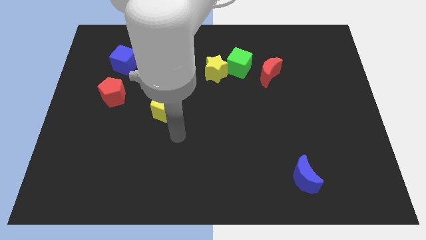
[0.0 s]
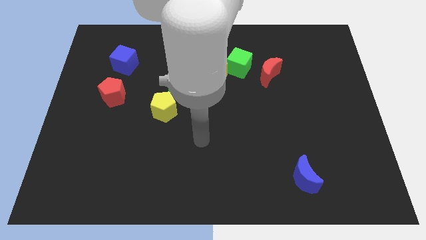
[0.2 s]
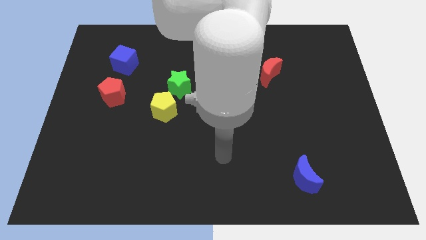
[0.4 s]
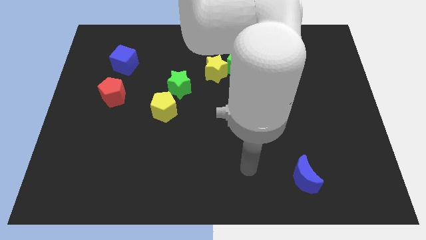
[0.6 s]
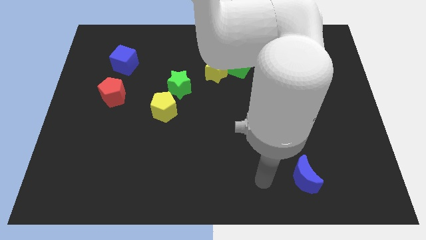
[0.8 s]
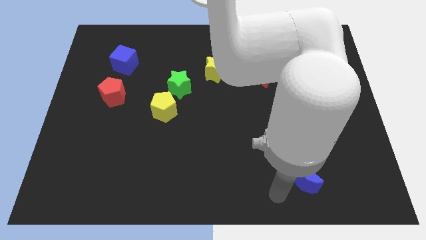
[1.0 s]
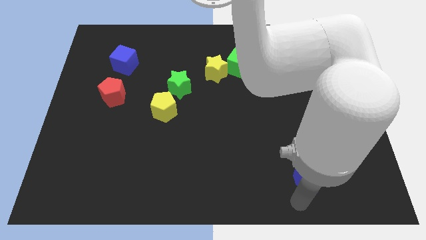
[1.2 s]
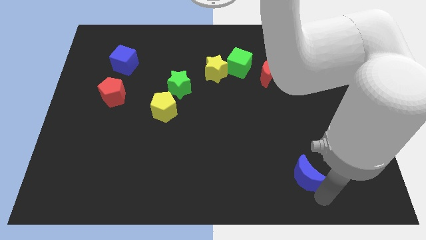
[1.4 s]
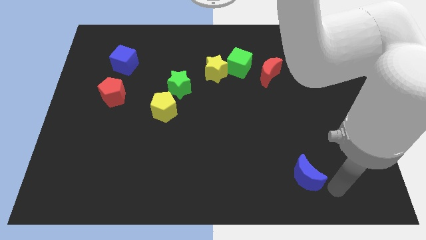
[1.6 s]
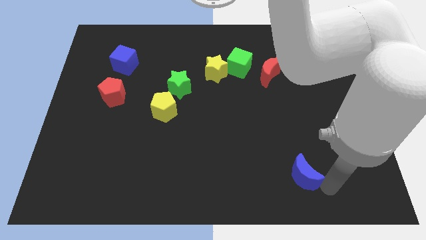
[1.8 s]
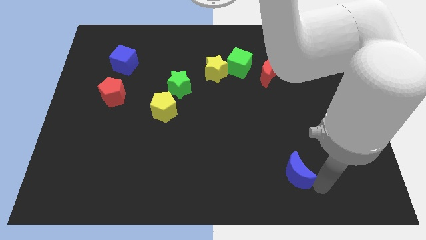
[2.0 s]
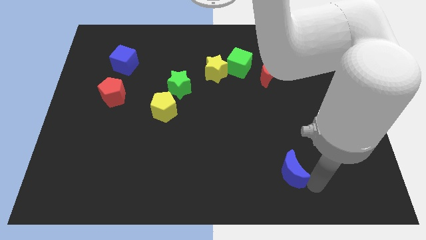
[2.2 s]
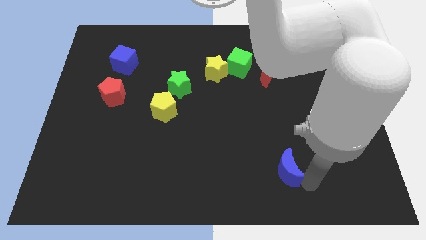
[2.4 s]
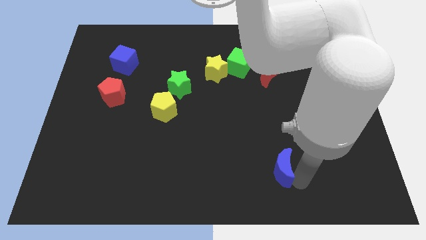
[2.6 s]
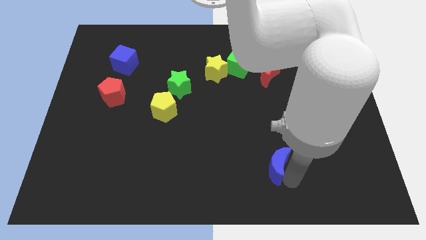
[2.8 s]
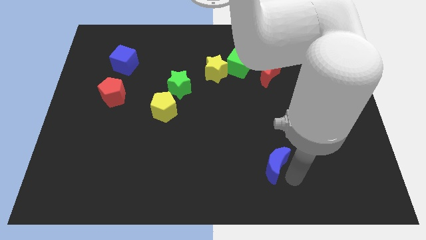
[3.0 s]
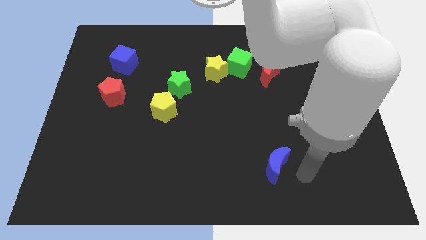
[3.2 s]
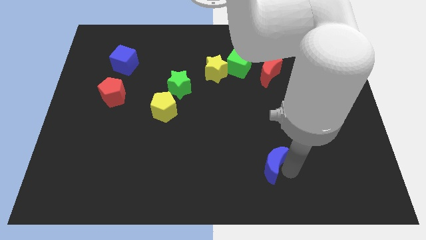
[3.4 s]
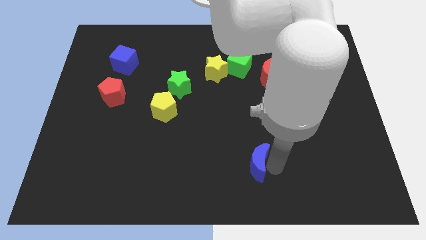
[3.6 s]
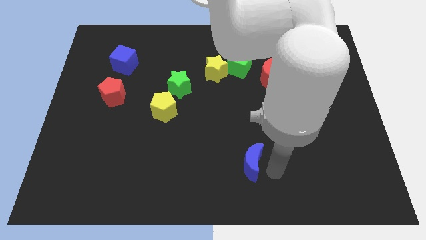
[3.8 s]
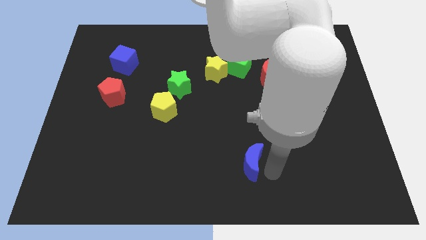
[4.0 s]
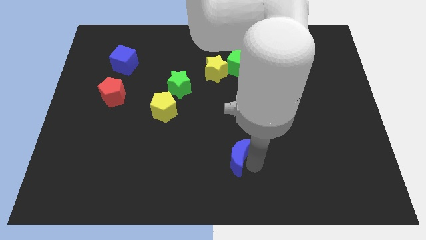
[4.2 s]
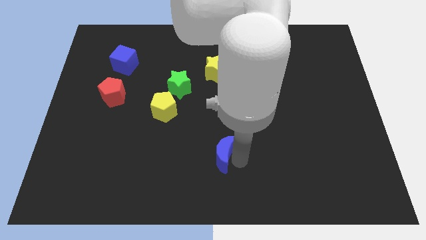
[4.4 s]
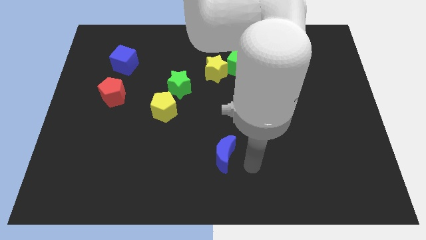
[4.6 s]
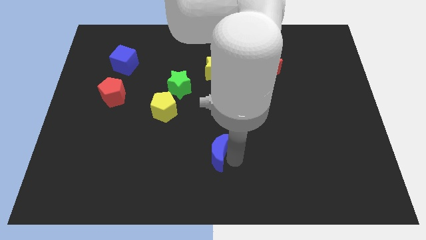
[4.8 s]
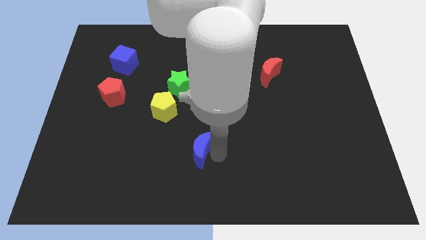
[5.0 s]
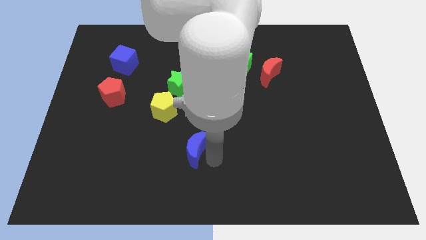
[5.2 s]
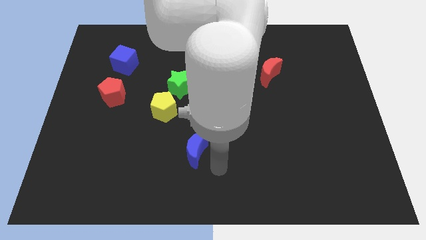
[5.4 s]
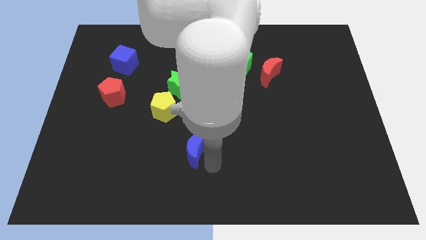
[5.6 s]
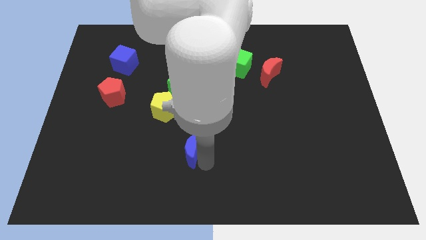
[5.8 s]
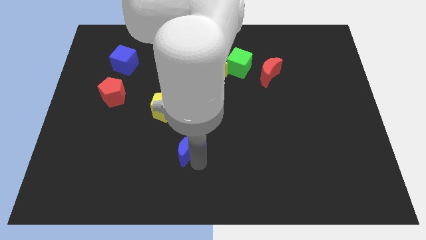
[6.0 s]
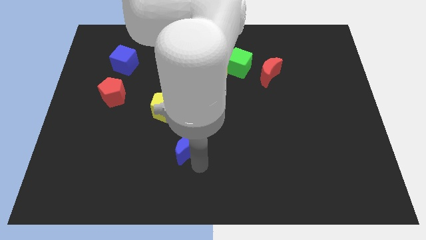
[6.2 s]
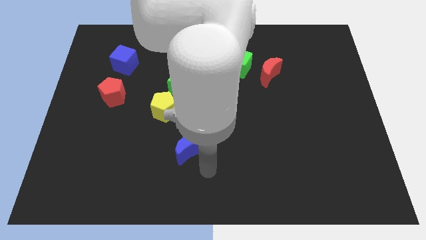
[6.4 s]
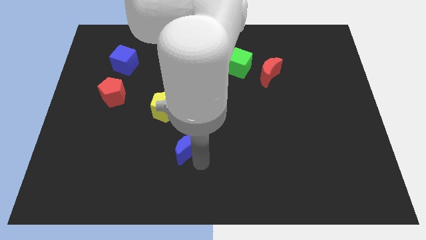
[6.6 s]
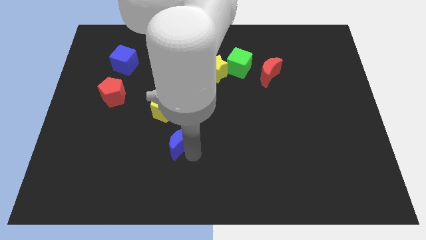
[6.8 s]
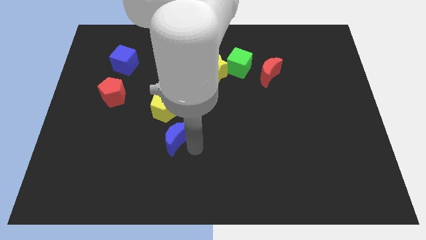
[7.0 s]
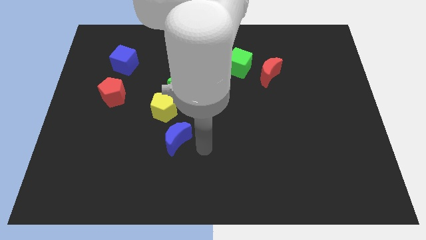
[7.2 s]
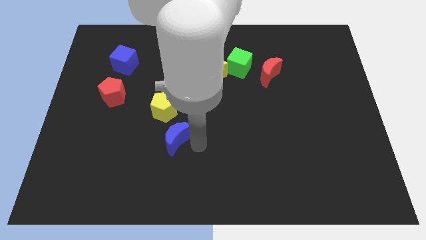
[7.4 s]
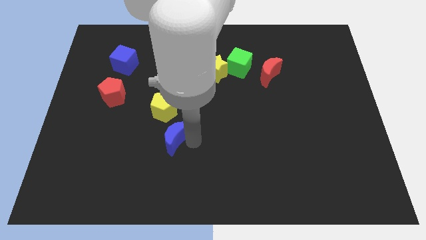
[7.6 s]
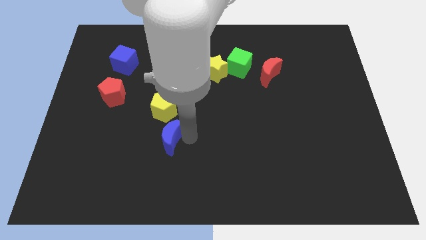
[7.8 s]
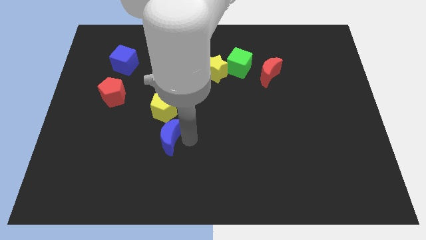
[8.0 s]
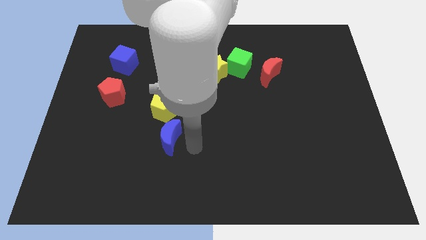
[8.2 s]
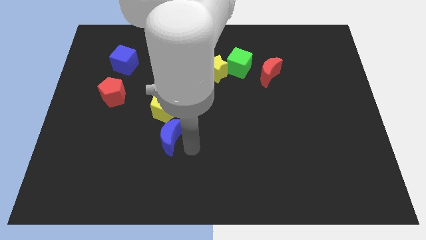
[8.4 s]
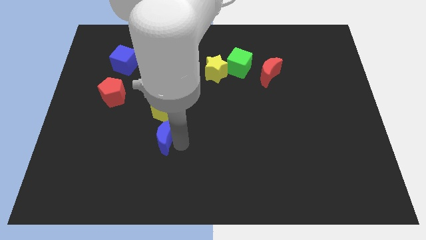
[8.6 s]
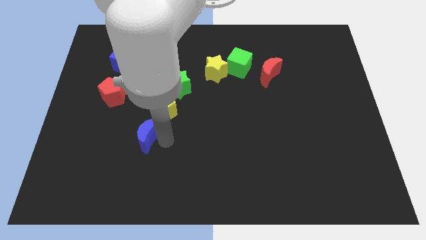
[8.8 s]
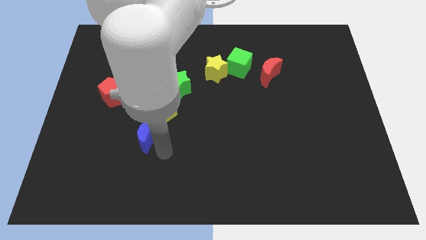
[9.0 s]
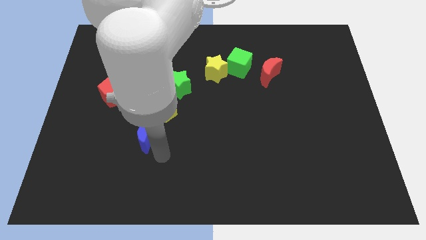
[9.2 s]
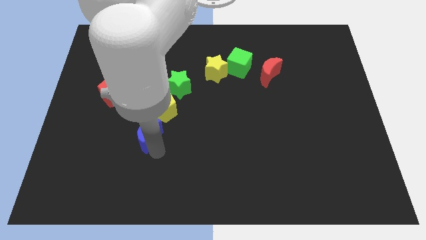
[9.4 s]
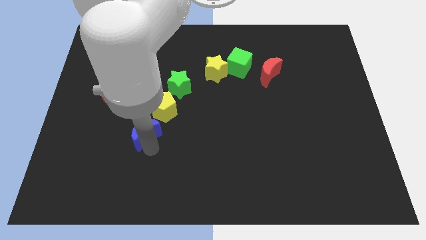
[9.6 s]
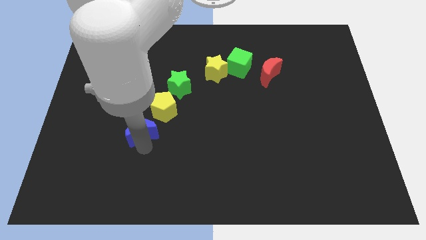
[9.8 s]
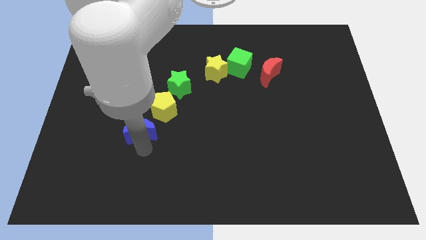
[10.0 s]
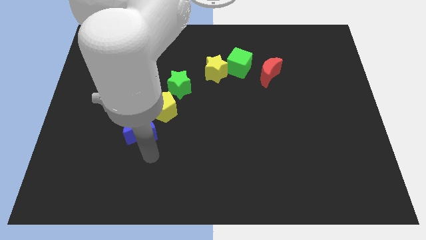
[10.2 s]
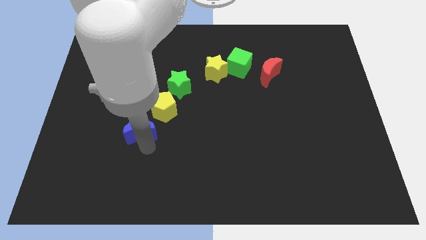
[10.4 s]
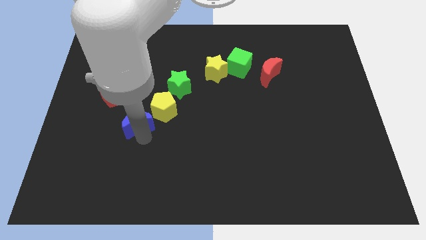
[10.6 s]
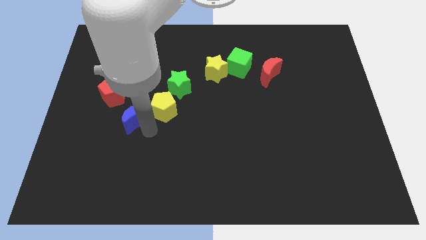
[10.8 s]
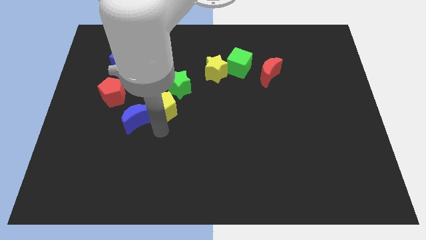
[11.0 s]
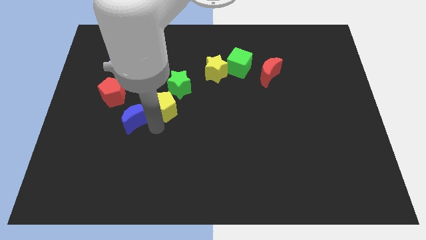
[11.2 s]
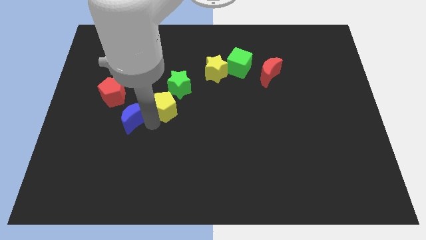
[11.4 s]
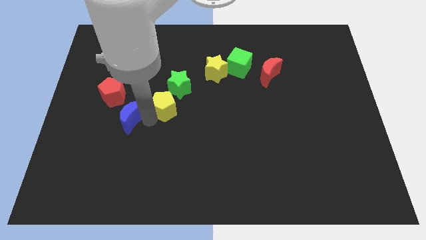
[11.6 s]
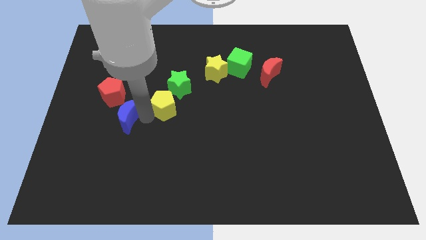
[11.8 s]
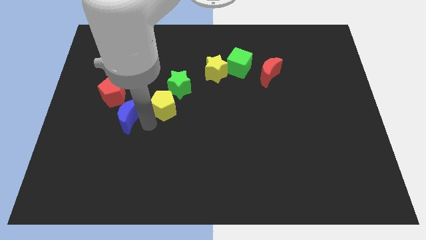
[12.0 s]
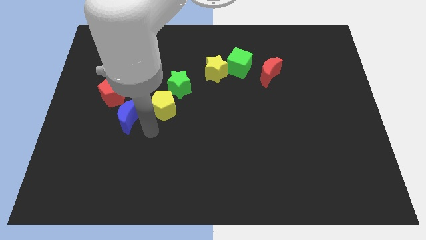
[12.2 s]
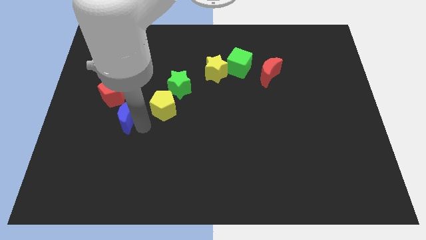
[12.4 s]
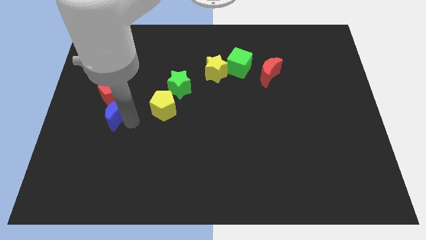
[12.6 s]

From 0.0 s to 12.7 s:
slide the blue moon close to the red pentagon
